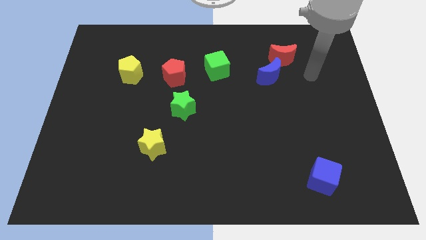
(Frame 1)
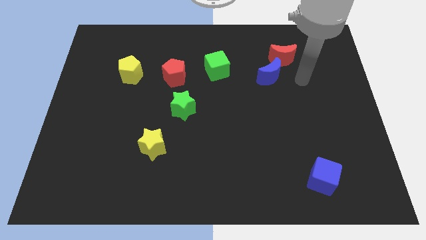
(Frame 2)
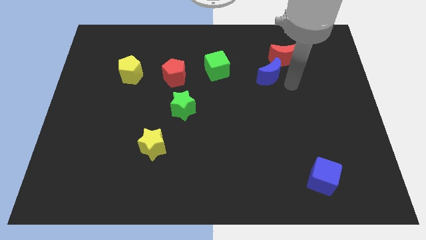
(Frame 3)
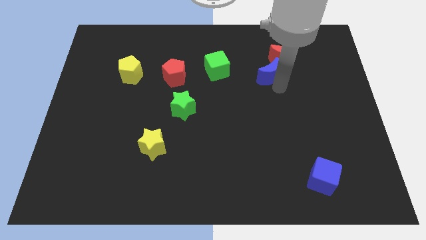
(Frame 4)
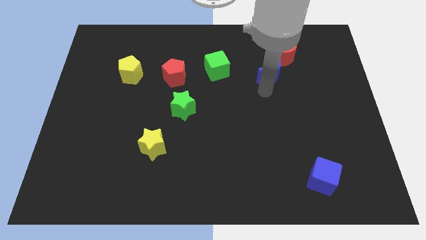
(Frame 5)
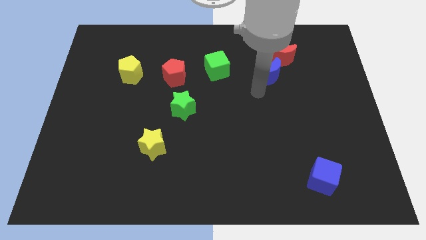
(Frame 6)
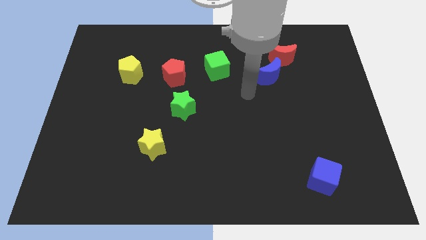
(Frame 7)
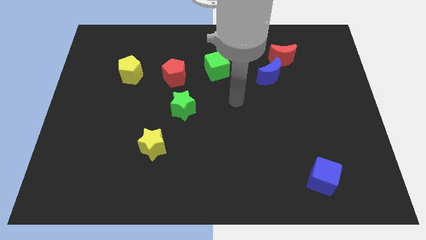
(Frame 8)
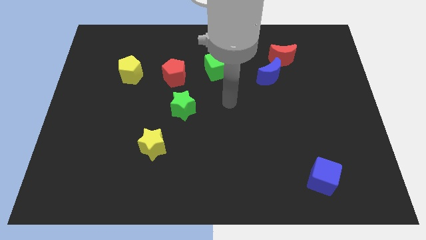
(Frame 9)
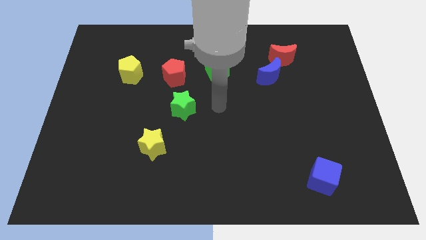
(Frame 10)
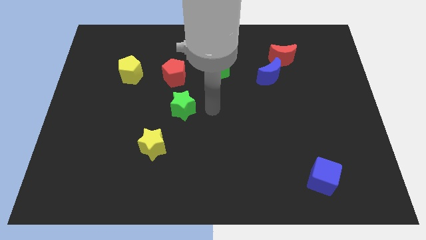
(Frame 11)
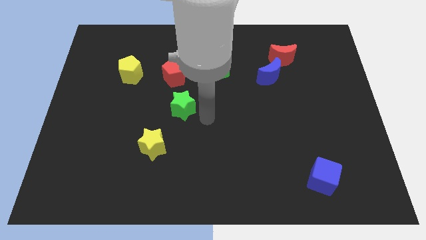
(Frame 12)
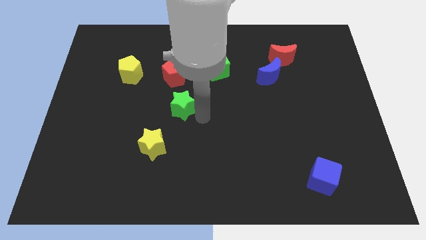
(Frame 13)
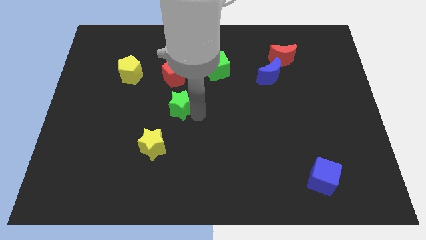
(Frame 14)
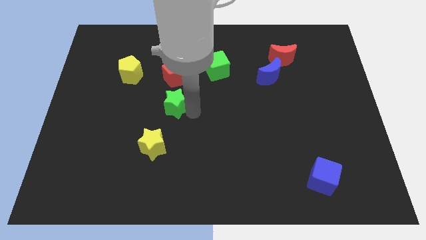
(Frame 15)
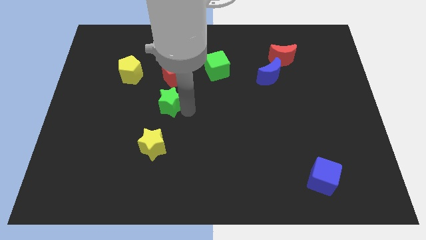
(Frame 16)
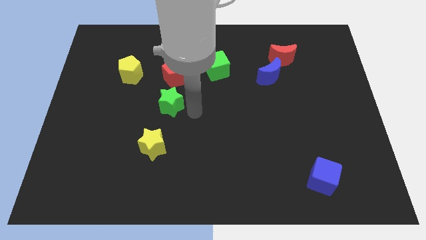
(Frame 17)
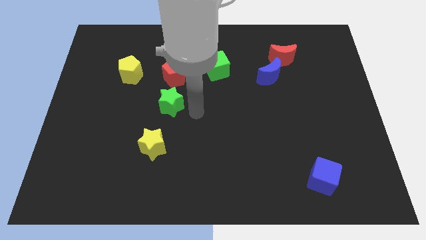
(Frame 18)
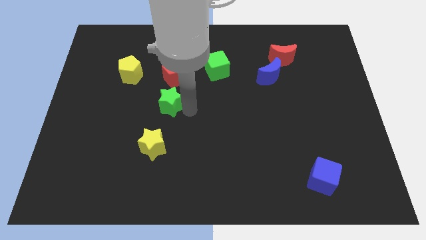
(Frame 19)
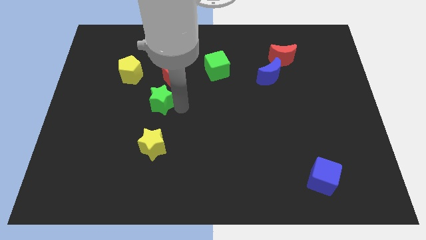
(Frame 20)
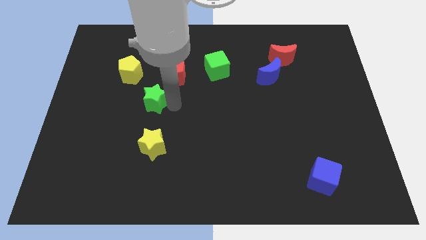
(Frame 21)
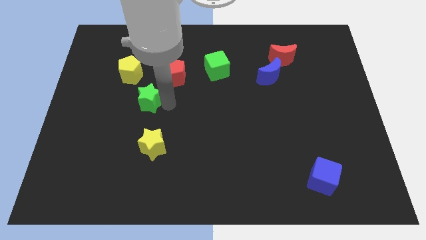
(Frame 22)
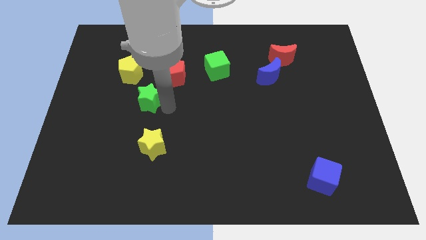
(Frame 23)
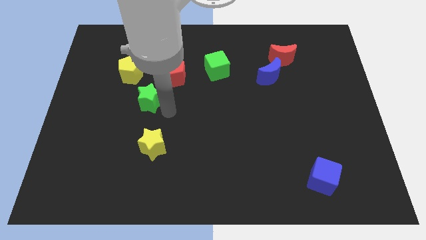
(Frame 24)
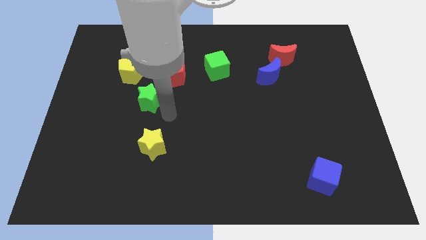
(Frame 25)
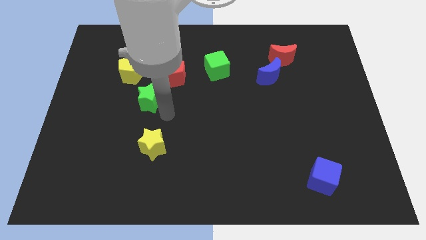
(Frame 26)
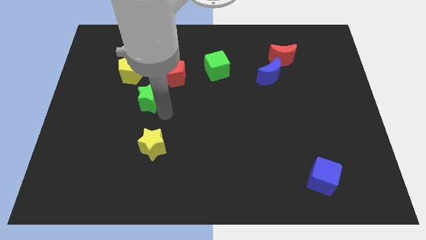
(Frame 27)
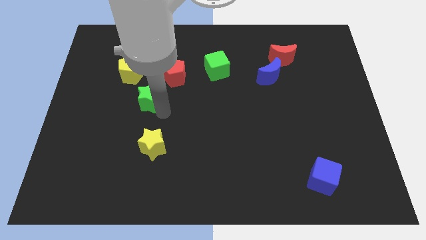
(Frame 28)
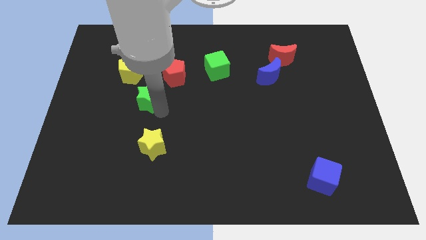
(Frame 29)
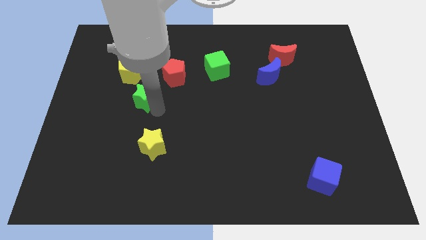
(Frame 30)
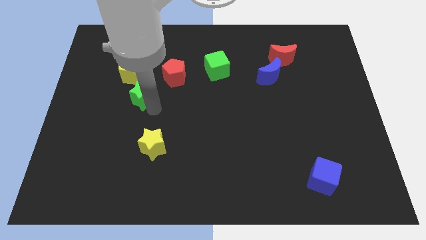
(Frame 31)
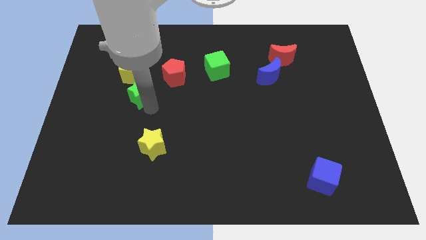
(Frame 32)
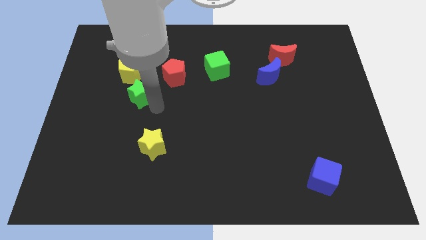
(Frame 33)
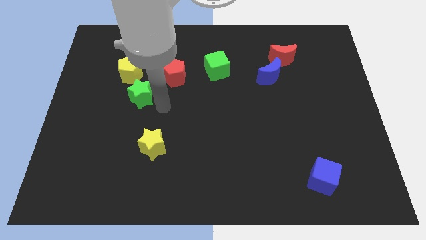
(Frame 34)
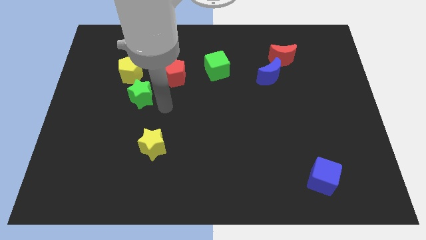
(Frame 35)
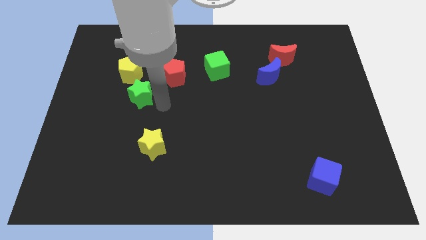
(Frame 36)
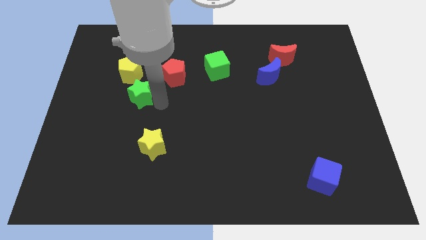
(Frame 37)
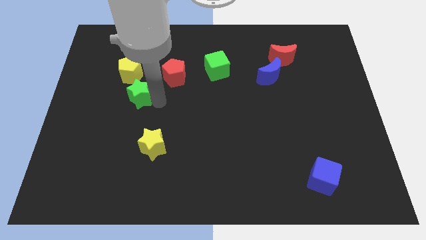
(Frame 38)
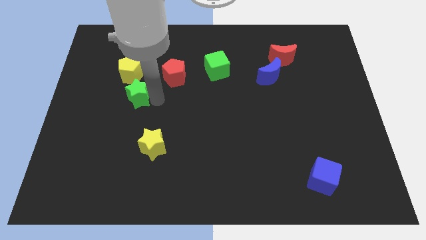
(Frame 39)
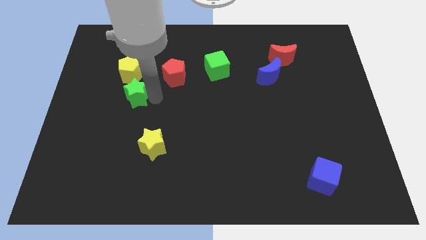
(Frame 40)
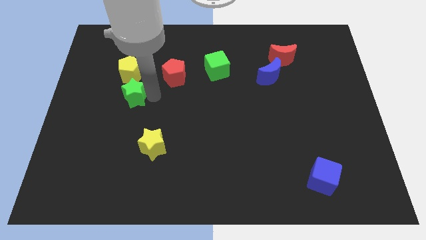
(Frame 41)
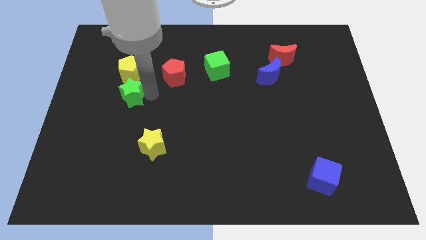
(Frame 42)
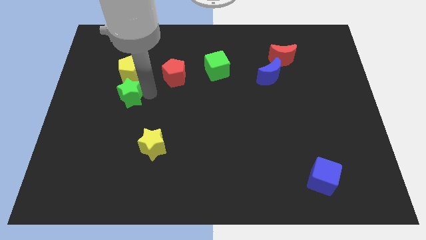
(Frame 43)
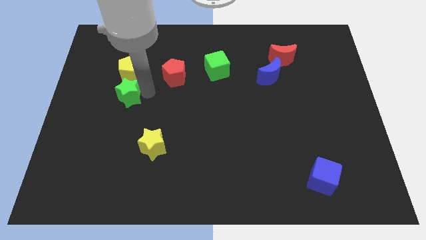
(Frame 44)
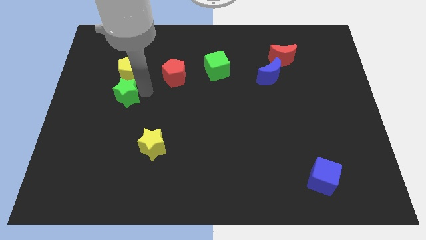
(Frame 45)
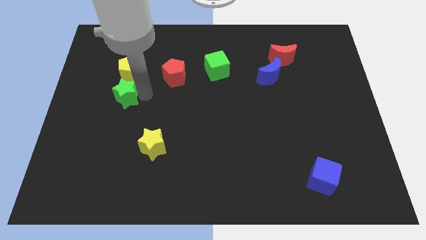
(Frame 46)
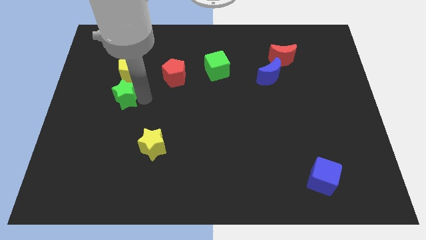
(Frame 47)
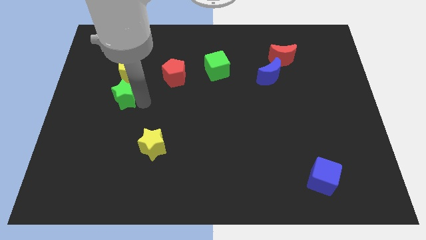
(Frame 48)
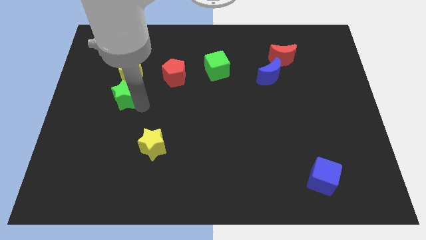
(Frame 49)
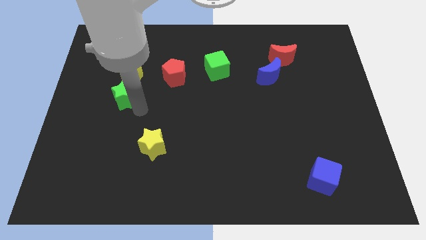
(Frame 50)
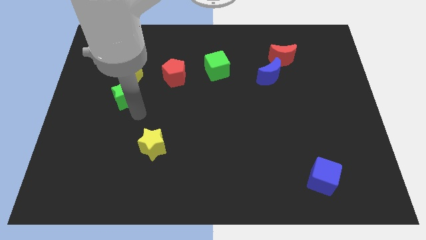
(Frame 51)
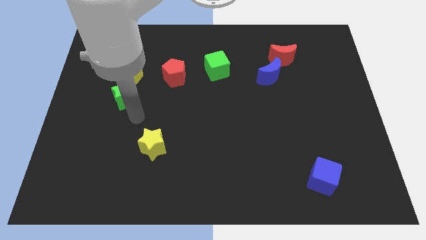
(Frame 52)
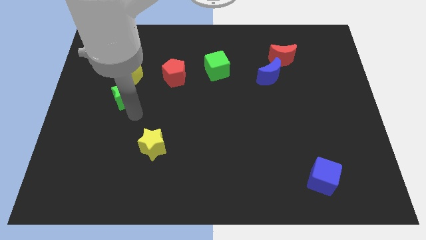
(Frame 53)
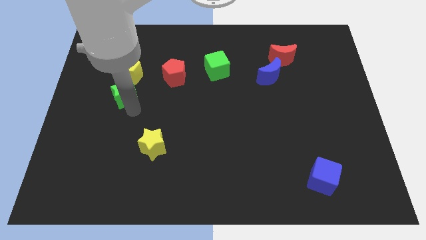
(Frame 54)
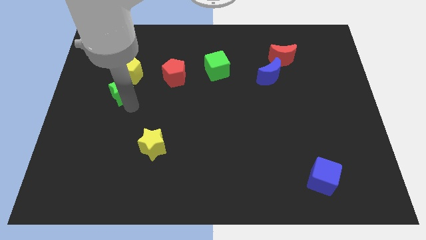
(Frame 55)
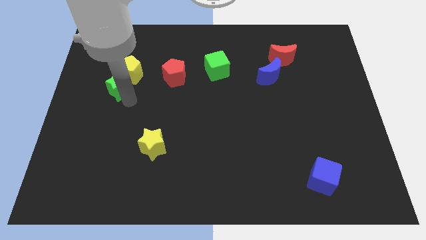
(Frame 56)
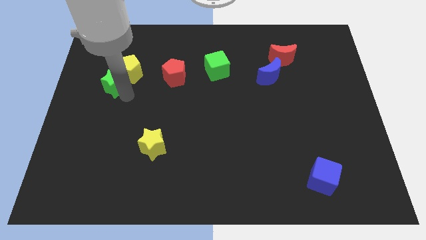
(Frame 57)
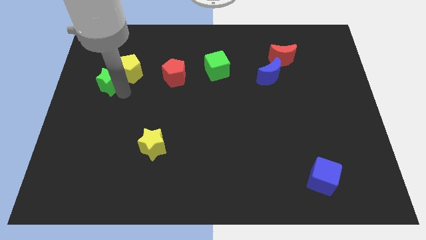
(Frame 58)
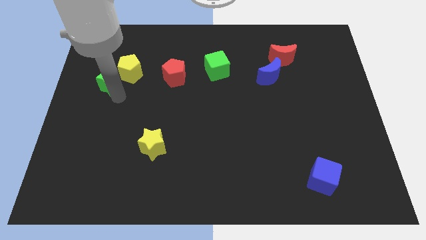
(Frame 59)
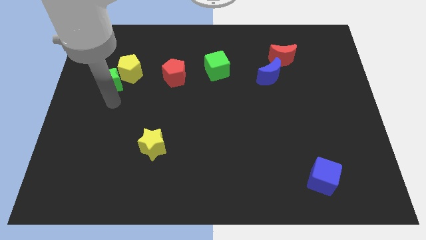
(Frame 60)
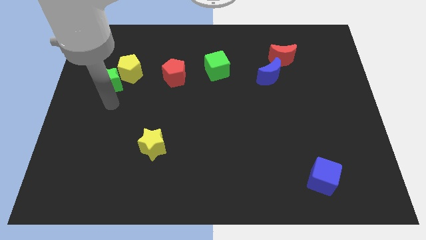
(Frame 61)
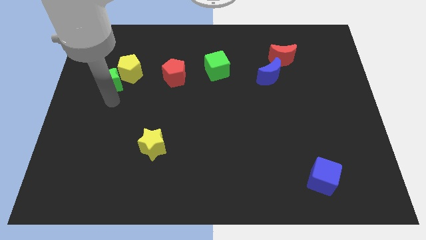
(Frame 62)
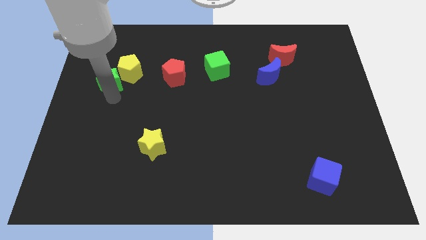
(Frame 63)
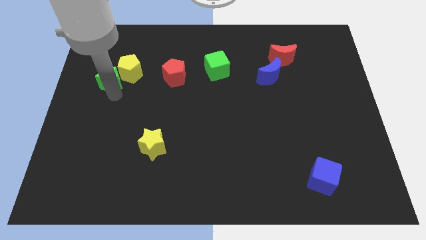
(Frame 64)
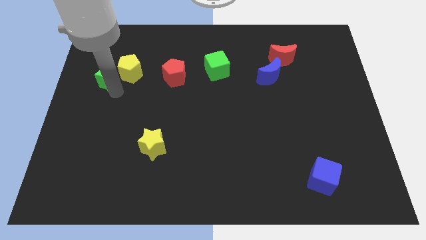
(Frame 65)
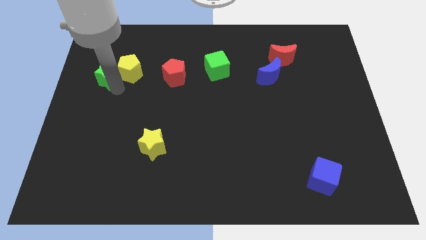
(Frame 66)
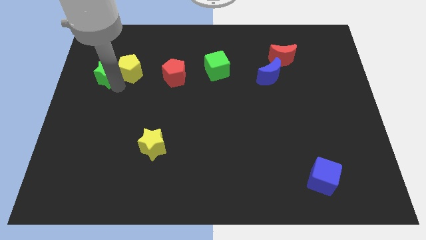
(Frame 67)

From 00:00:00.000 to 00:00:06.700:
slide the green star diagonally up and to the left of the yellow pentagon
